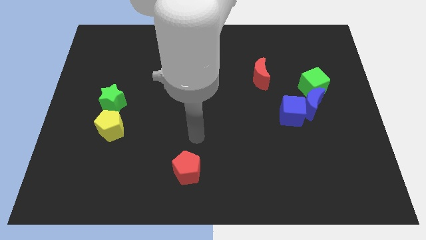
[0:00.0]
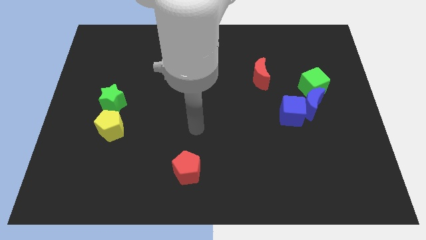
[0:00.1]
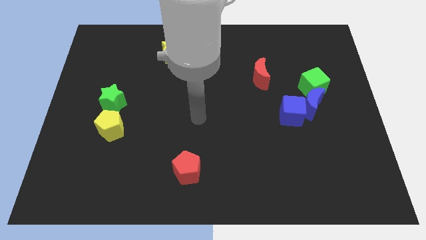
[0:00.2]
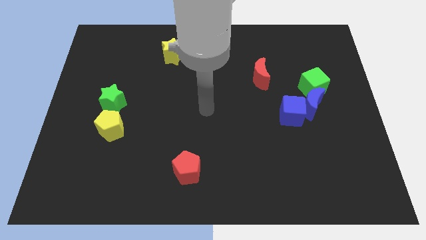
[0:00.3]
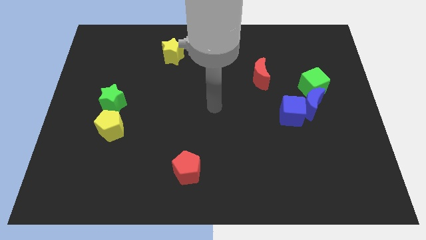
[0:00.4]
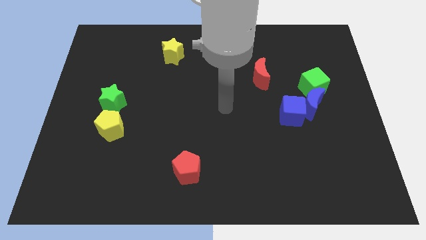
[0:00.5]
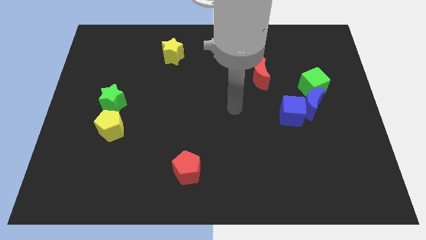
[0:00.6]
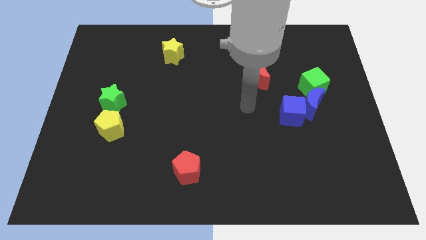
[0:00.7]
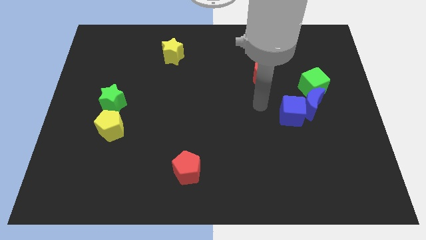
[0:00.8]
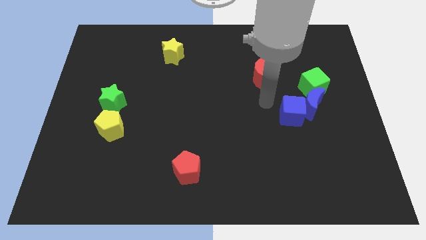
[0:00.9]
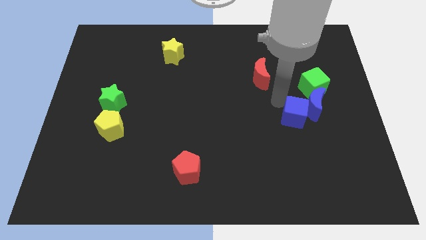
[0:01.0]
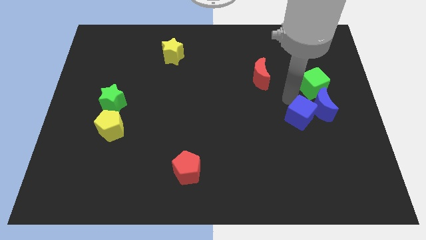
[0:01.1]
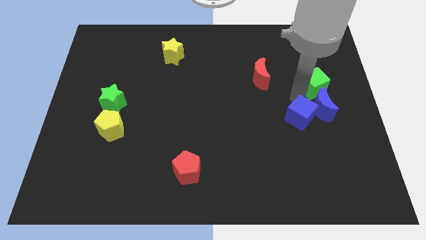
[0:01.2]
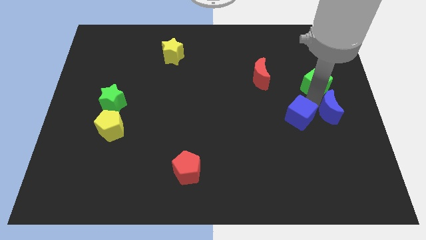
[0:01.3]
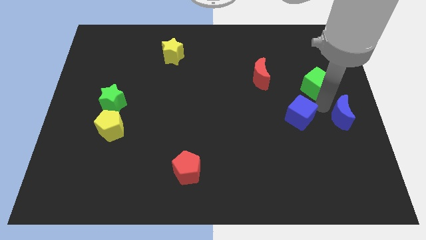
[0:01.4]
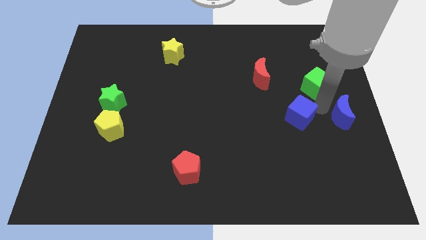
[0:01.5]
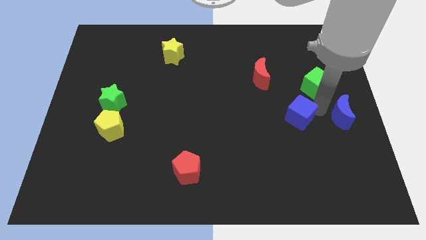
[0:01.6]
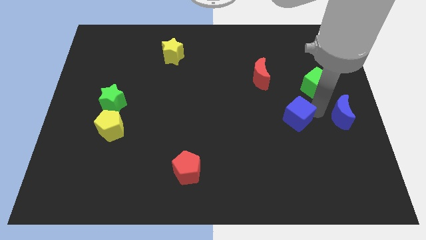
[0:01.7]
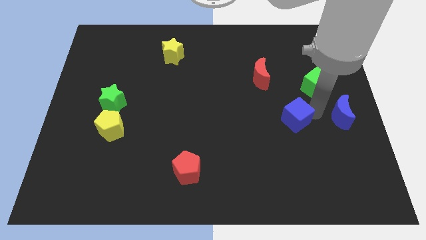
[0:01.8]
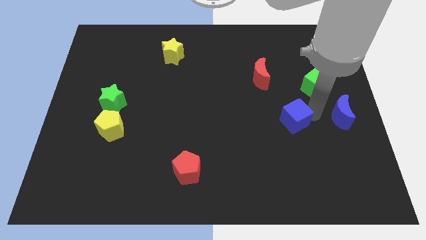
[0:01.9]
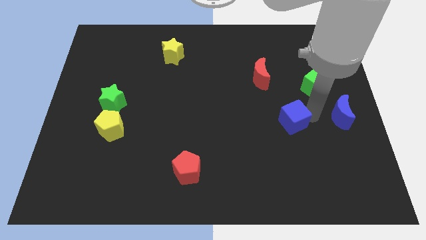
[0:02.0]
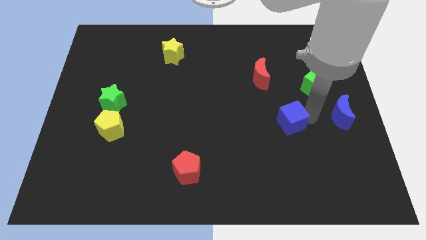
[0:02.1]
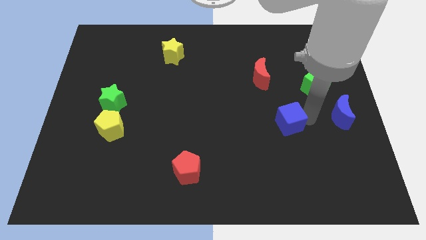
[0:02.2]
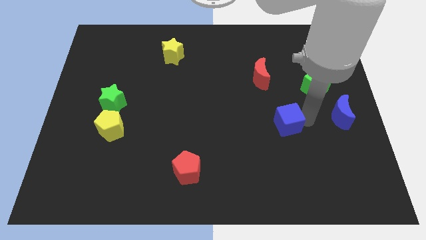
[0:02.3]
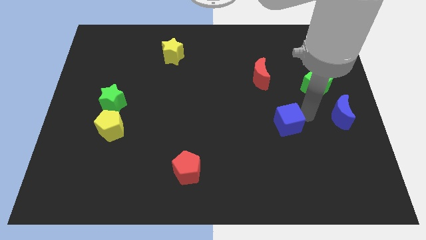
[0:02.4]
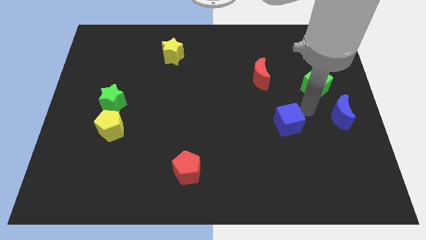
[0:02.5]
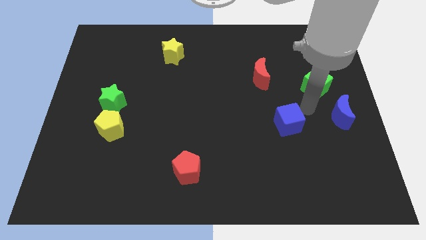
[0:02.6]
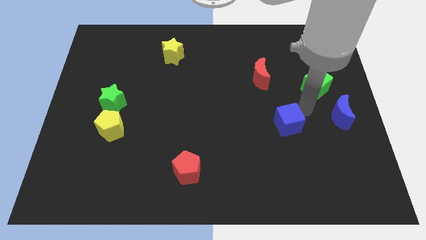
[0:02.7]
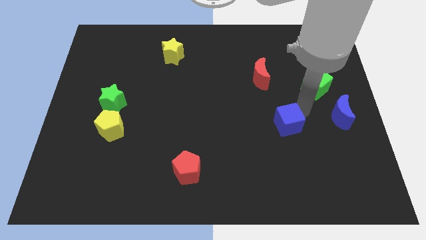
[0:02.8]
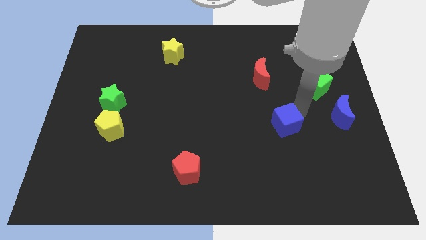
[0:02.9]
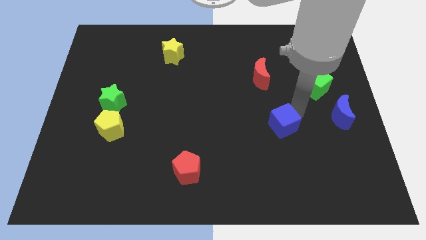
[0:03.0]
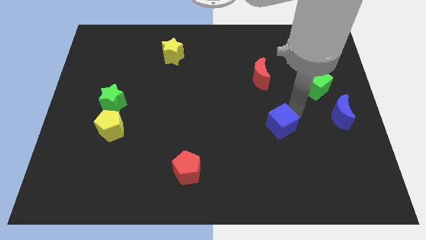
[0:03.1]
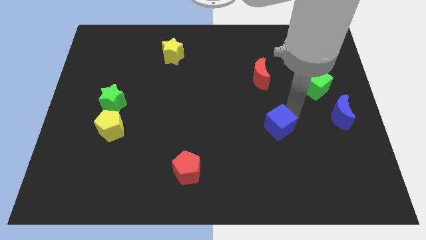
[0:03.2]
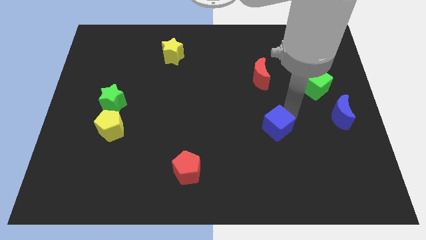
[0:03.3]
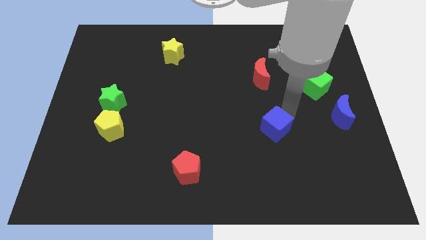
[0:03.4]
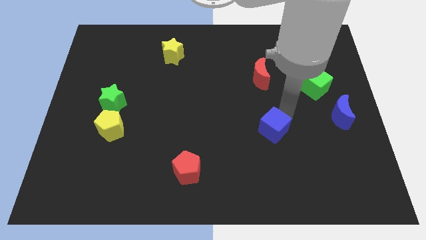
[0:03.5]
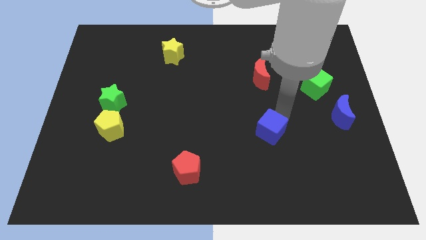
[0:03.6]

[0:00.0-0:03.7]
slightly slide the blue cube downwards and then to the left

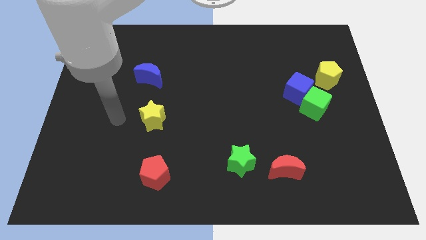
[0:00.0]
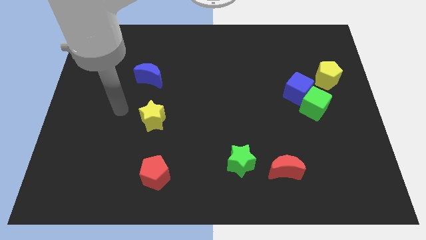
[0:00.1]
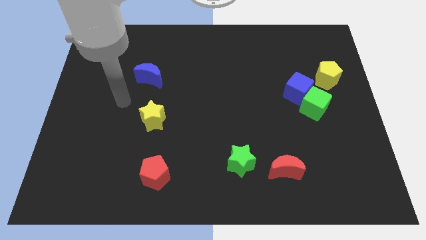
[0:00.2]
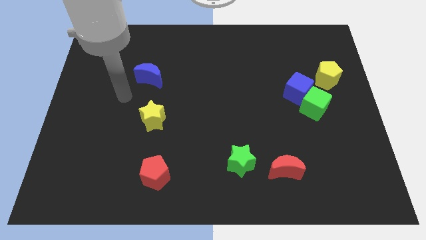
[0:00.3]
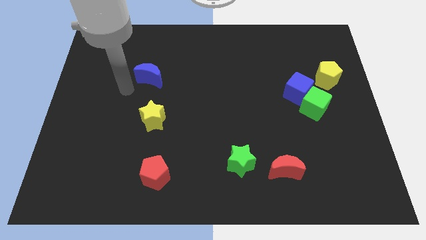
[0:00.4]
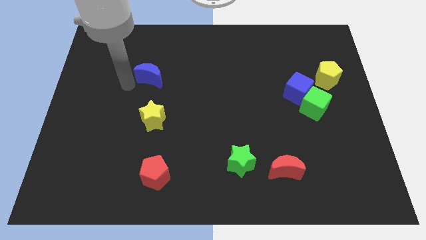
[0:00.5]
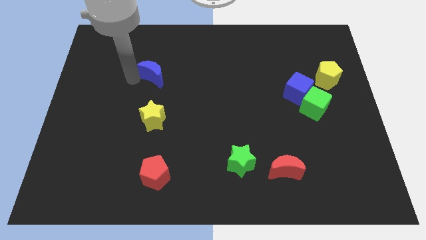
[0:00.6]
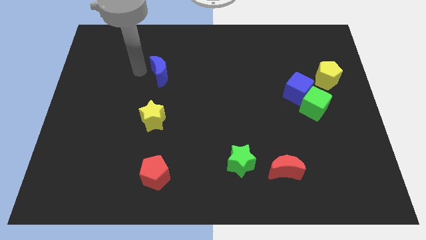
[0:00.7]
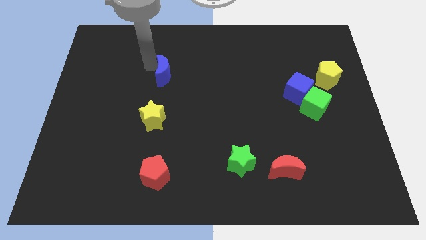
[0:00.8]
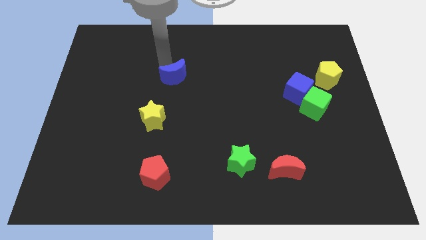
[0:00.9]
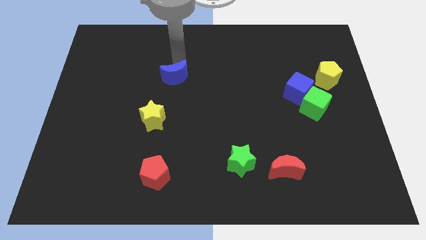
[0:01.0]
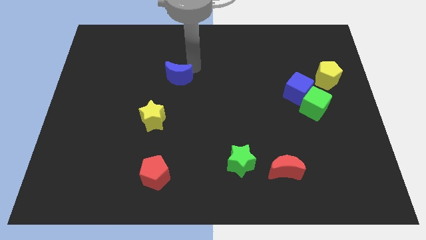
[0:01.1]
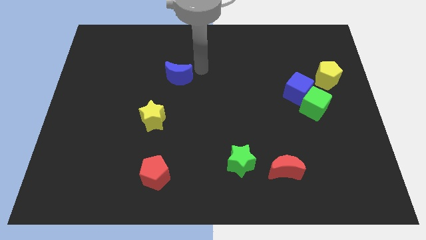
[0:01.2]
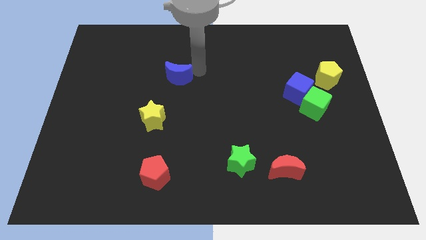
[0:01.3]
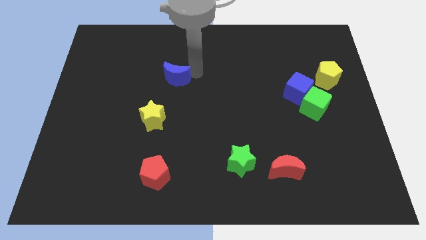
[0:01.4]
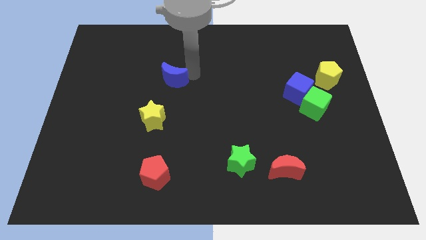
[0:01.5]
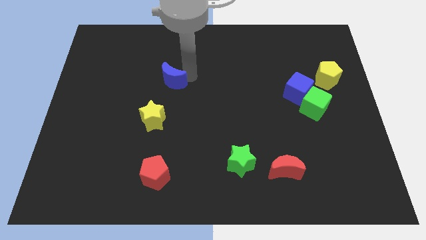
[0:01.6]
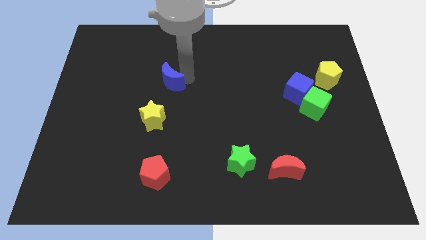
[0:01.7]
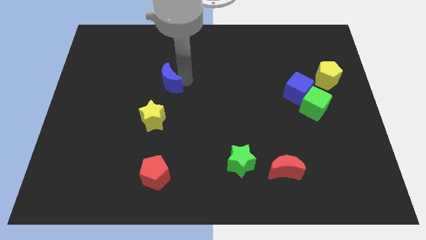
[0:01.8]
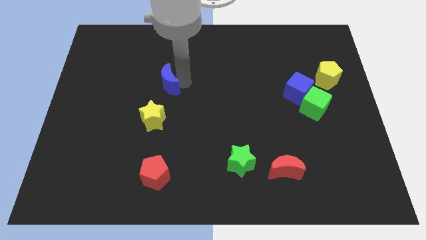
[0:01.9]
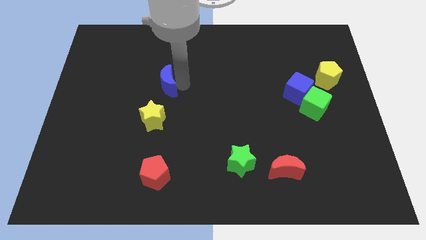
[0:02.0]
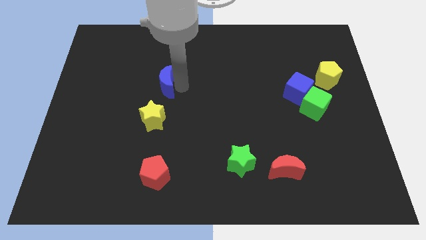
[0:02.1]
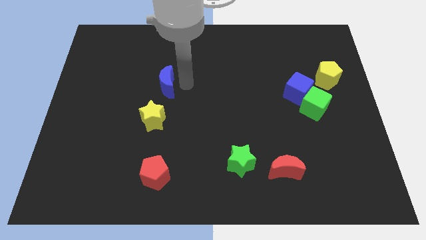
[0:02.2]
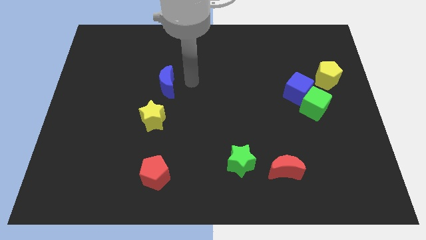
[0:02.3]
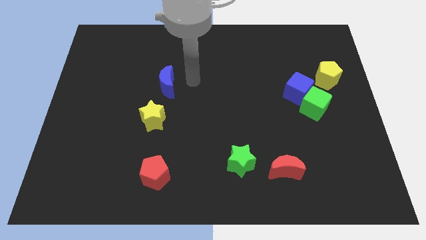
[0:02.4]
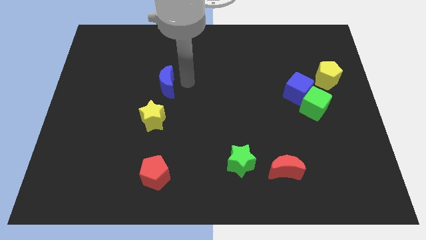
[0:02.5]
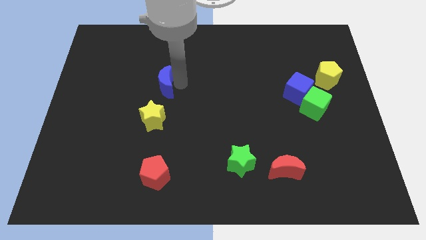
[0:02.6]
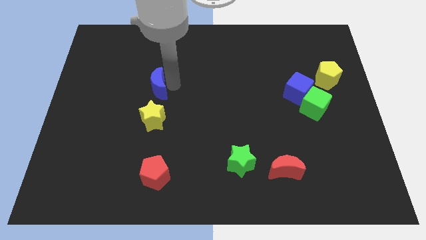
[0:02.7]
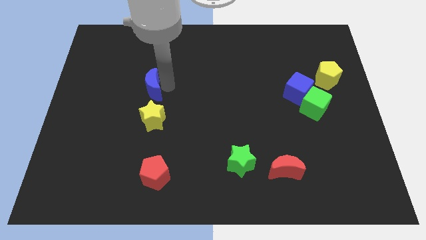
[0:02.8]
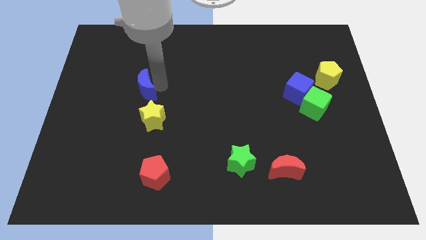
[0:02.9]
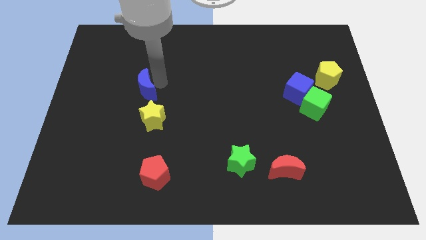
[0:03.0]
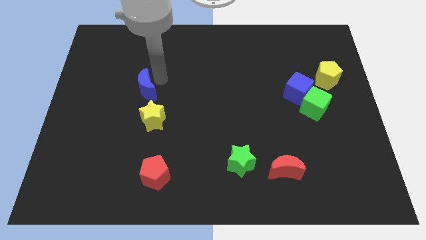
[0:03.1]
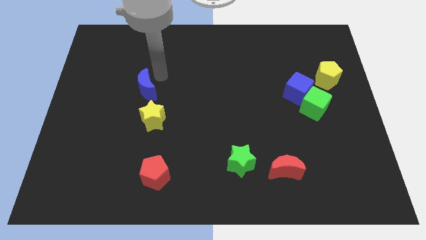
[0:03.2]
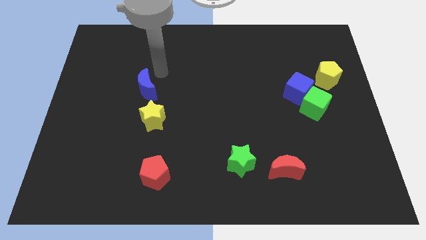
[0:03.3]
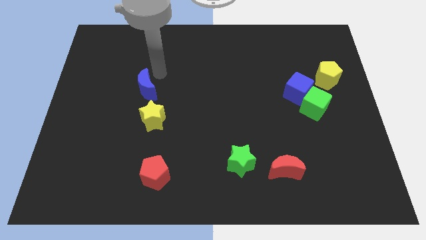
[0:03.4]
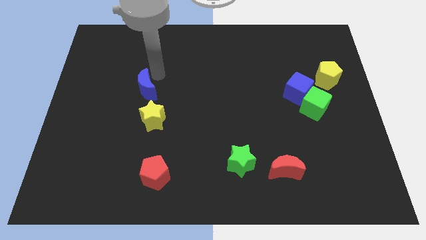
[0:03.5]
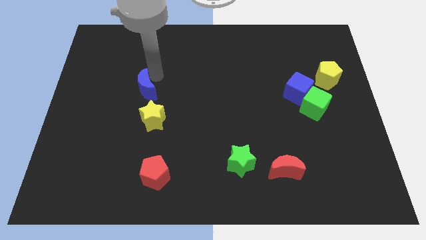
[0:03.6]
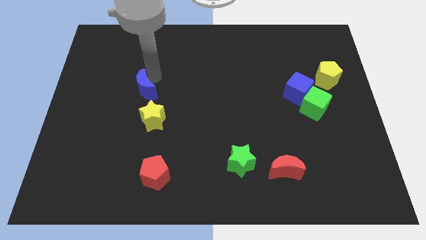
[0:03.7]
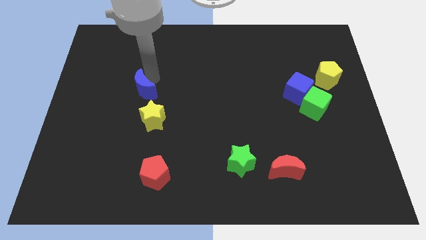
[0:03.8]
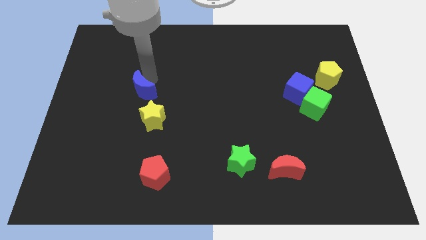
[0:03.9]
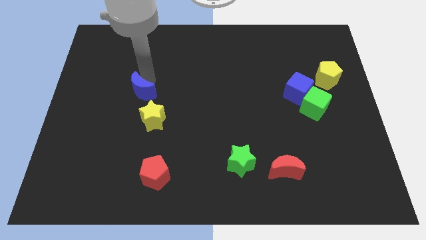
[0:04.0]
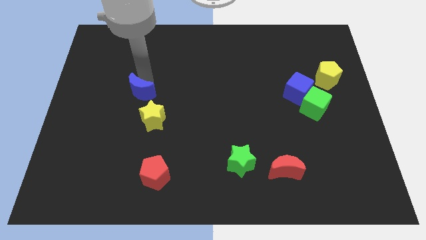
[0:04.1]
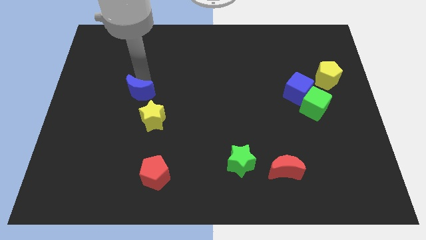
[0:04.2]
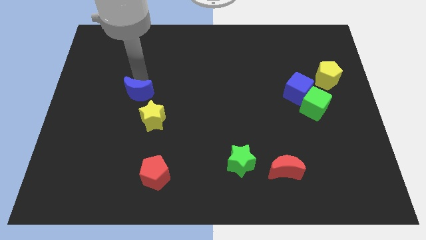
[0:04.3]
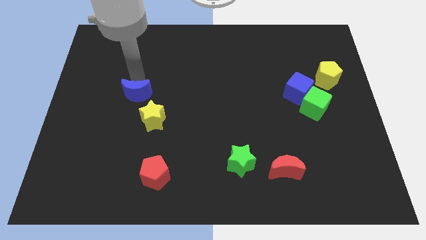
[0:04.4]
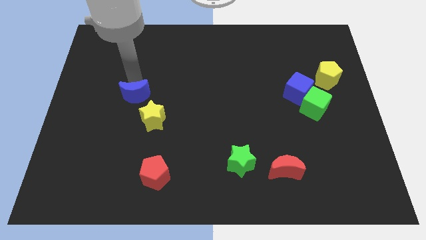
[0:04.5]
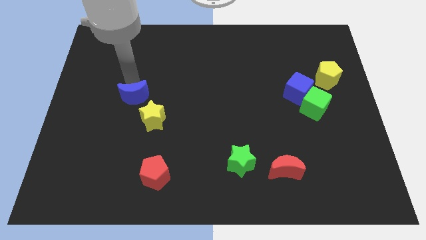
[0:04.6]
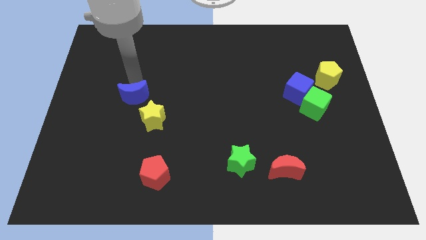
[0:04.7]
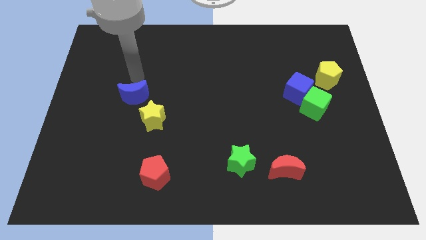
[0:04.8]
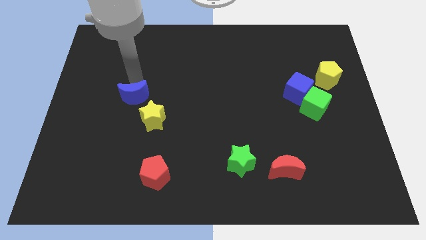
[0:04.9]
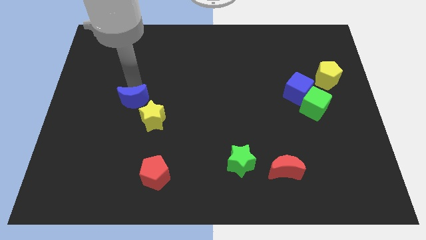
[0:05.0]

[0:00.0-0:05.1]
slightly move the blue moon down
